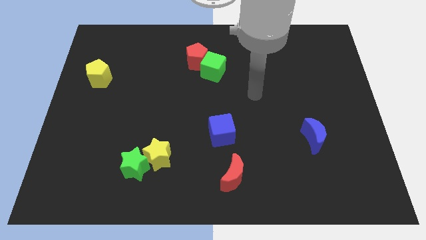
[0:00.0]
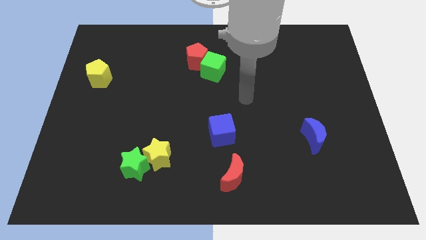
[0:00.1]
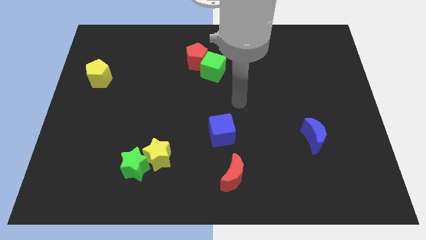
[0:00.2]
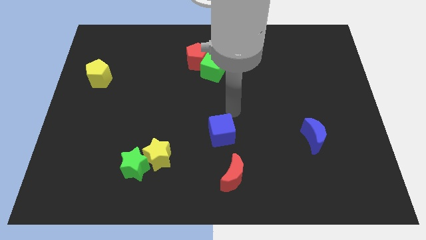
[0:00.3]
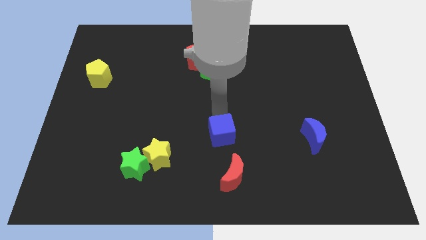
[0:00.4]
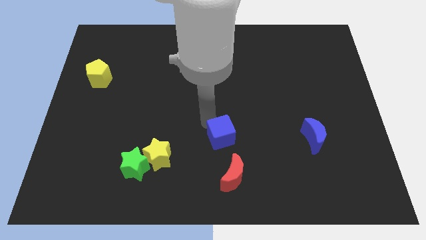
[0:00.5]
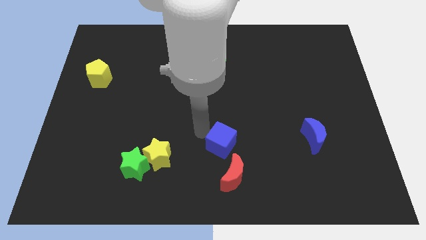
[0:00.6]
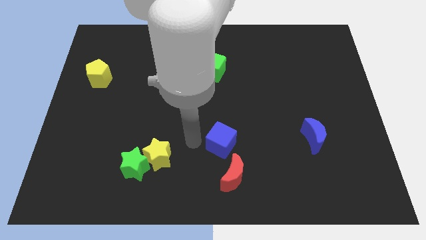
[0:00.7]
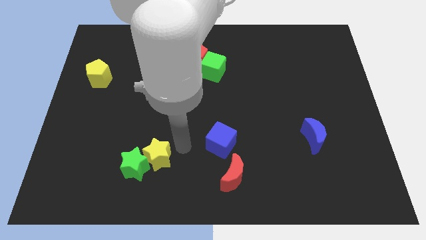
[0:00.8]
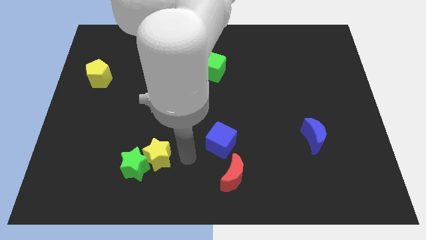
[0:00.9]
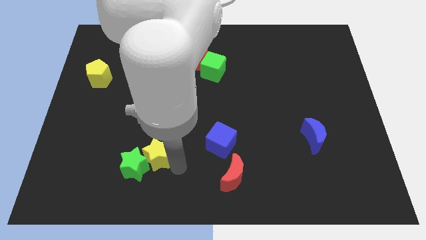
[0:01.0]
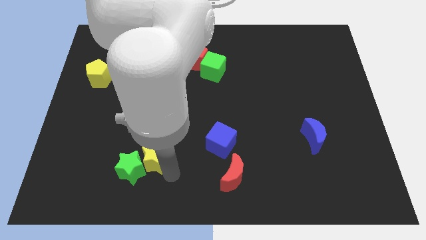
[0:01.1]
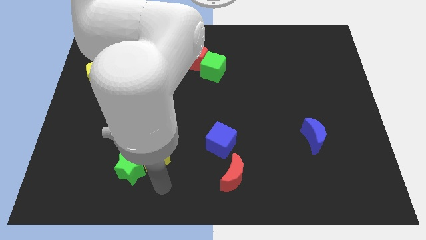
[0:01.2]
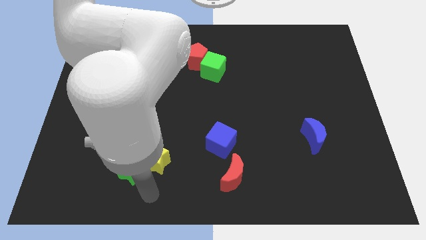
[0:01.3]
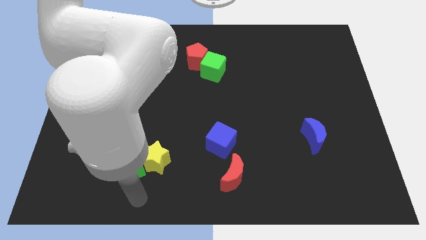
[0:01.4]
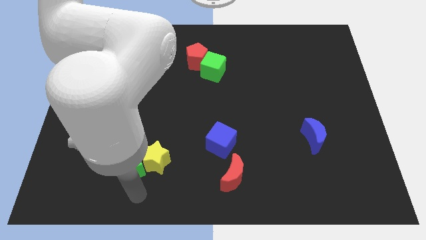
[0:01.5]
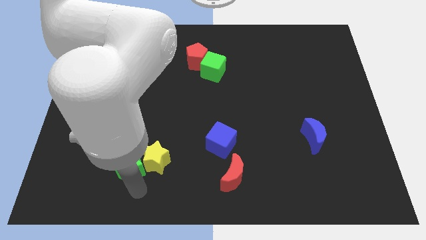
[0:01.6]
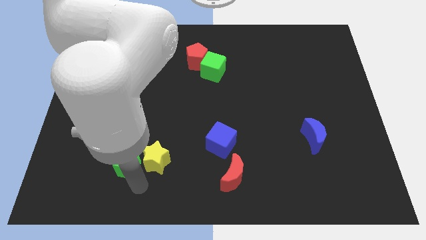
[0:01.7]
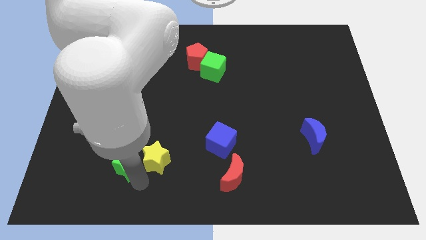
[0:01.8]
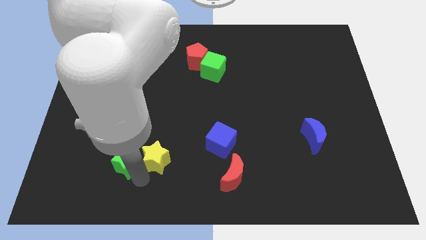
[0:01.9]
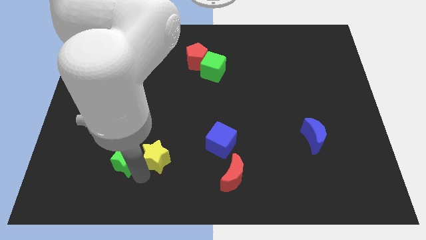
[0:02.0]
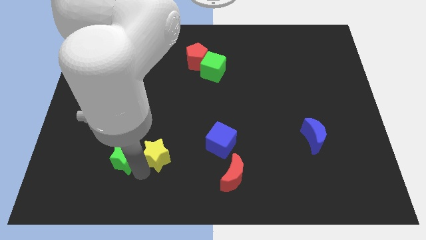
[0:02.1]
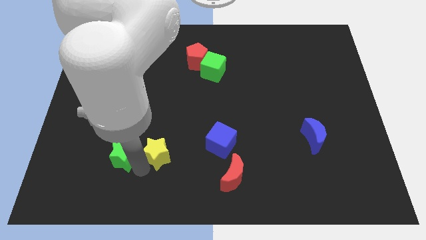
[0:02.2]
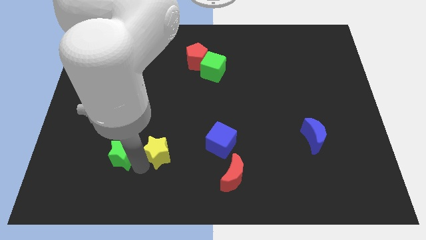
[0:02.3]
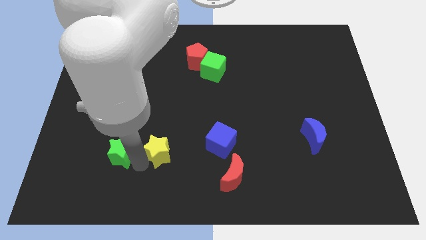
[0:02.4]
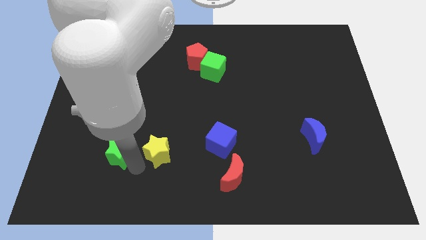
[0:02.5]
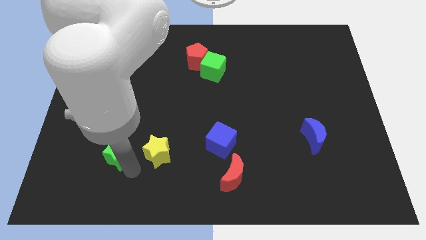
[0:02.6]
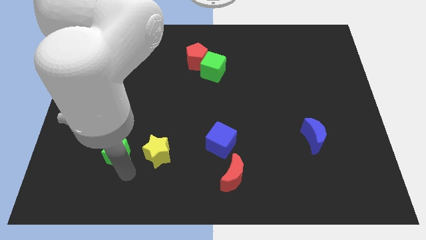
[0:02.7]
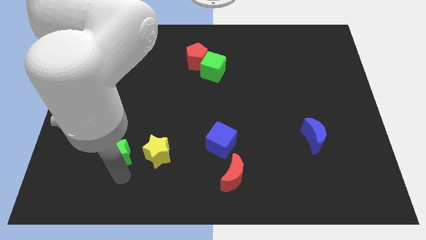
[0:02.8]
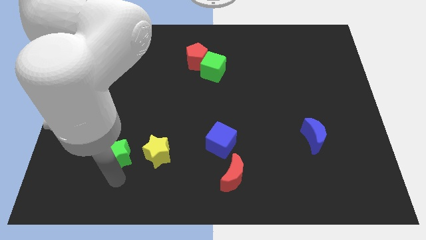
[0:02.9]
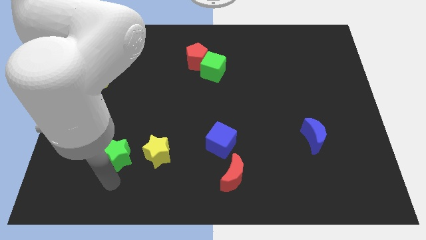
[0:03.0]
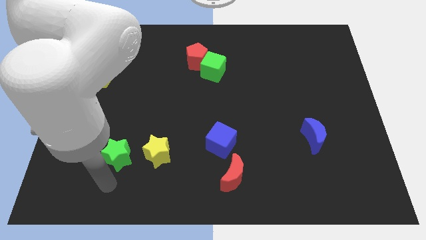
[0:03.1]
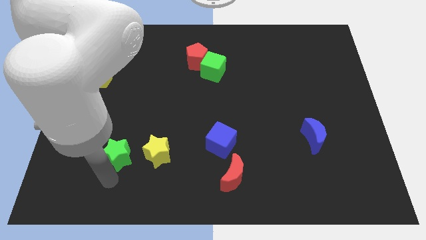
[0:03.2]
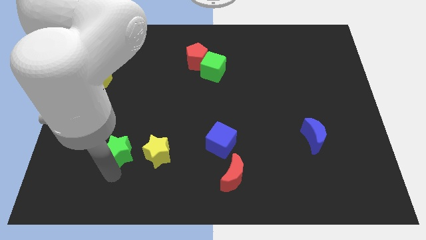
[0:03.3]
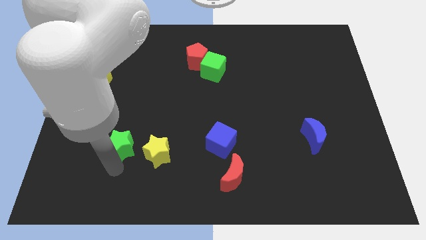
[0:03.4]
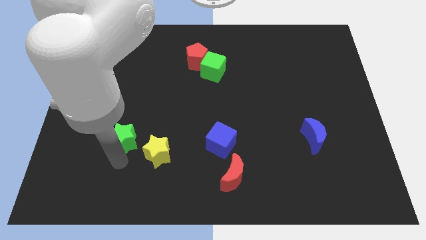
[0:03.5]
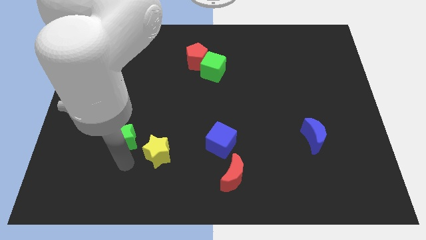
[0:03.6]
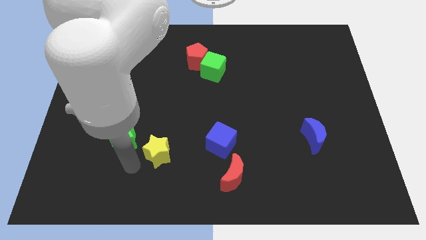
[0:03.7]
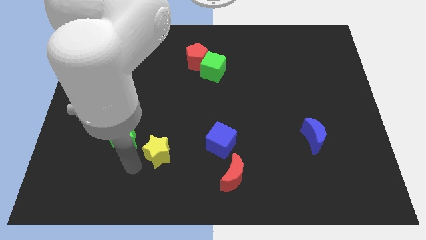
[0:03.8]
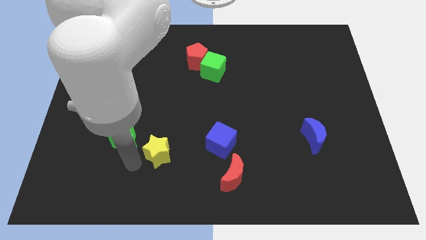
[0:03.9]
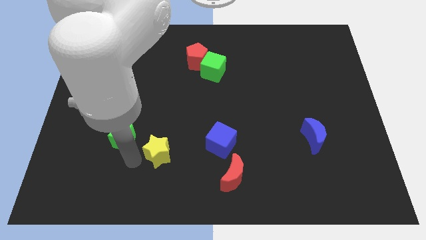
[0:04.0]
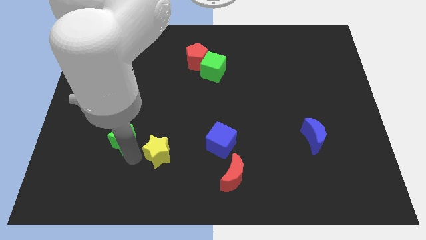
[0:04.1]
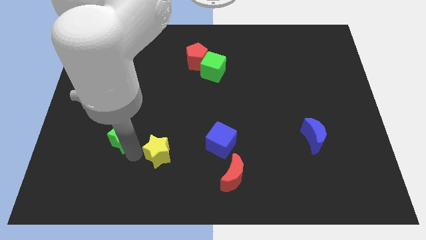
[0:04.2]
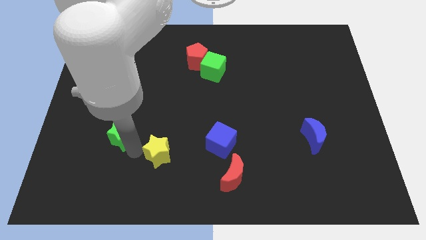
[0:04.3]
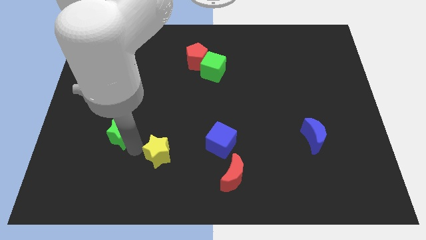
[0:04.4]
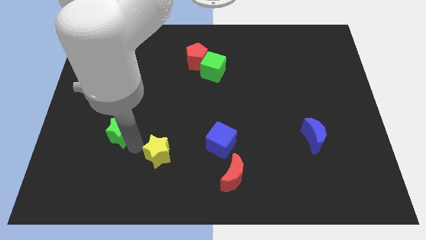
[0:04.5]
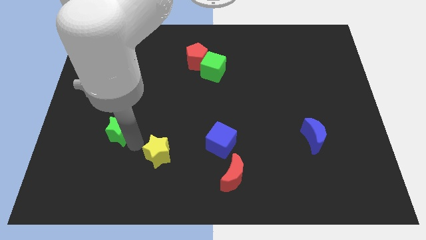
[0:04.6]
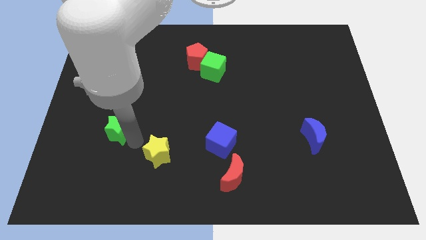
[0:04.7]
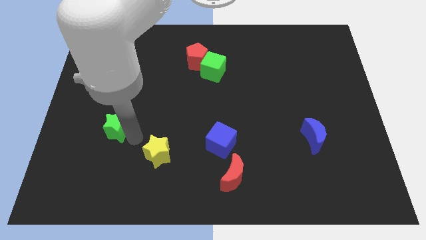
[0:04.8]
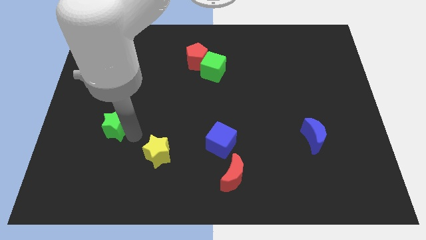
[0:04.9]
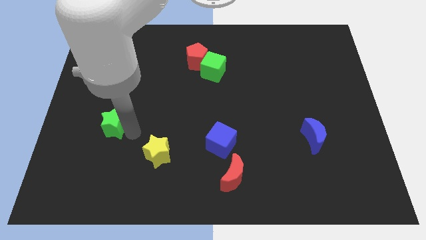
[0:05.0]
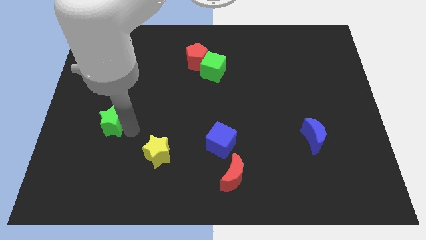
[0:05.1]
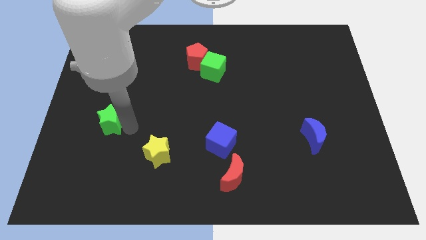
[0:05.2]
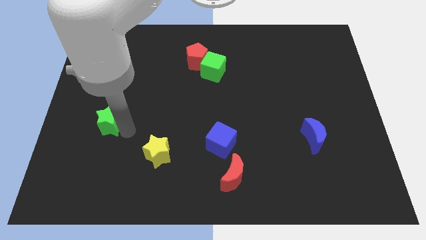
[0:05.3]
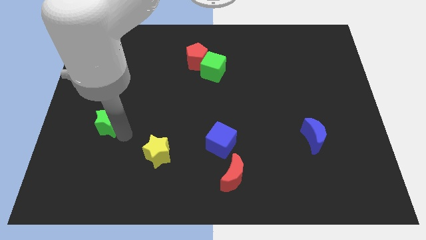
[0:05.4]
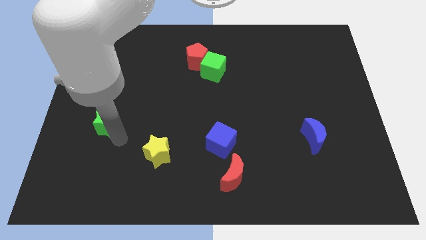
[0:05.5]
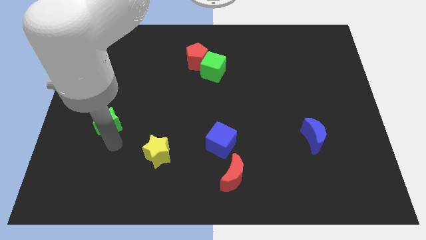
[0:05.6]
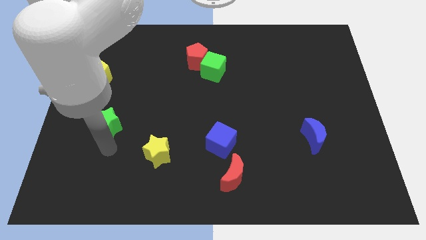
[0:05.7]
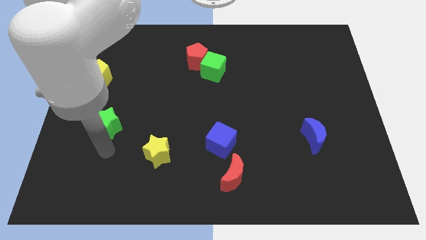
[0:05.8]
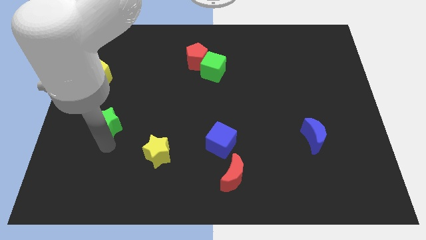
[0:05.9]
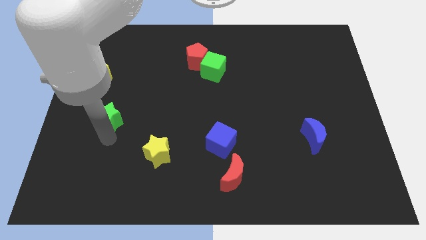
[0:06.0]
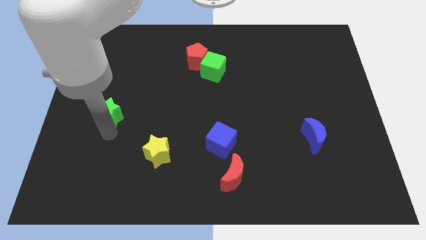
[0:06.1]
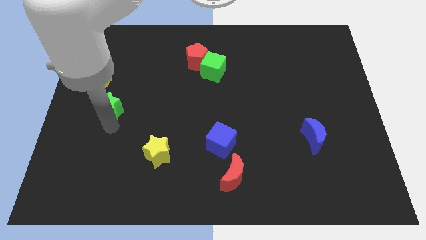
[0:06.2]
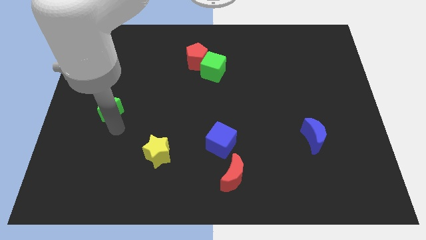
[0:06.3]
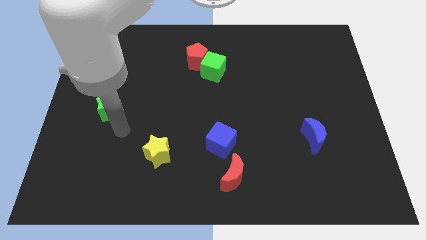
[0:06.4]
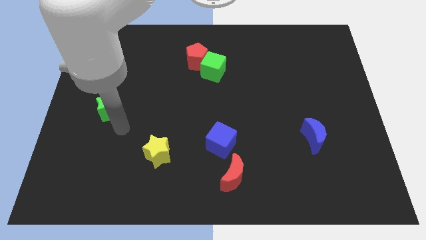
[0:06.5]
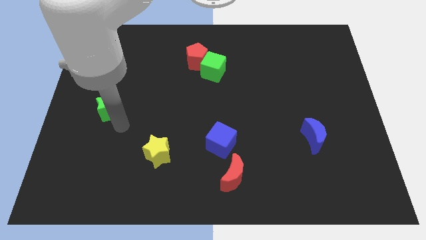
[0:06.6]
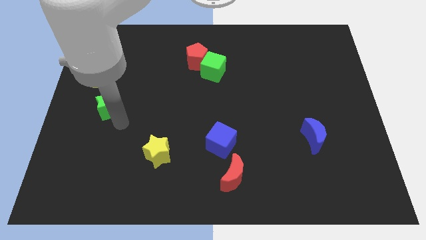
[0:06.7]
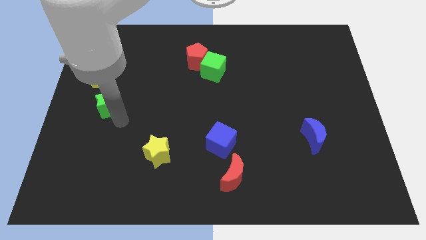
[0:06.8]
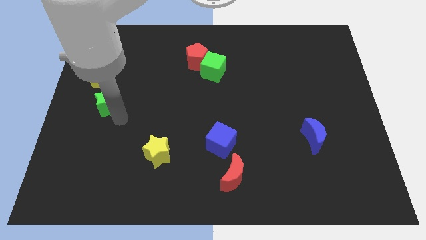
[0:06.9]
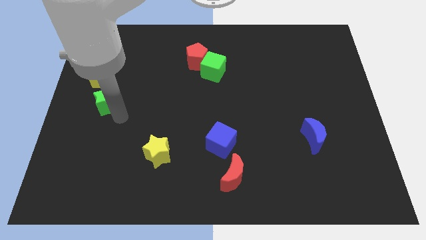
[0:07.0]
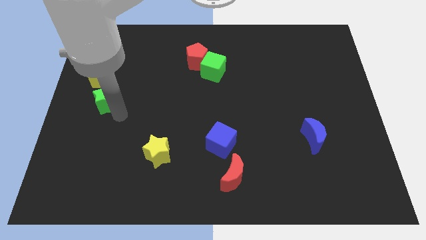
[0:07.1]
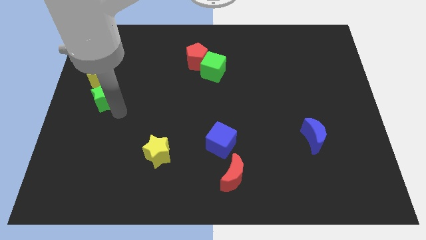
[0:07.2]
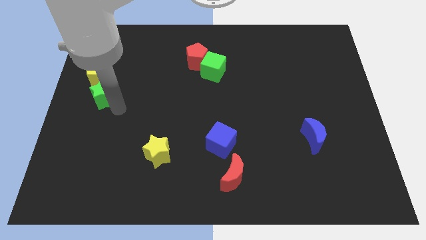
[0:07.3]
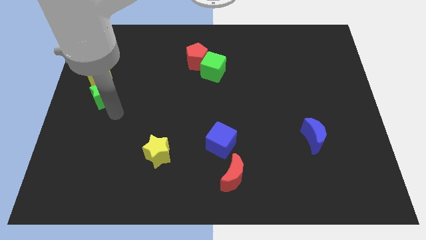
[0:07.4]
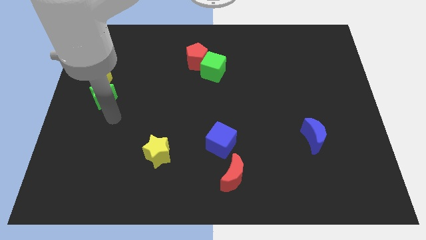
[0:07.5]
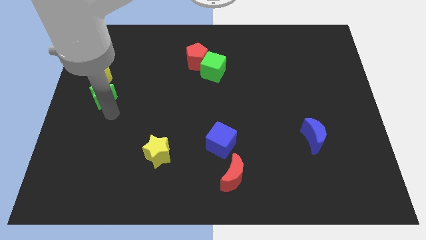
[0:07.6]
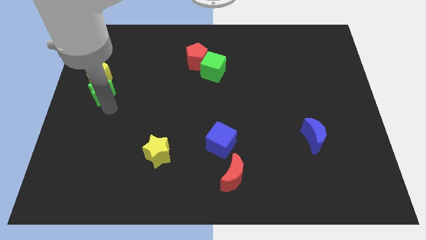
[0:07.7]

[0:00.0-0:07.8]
push the green star close to the yellow pentagon
